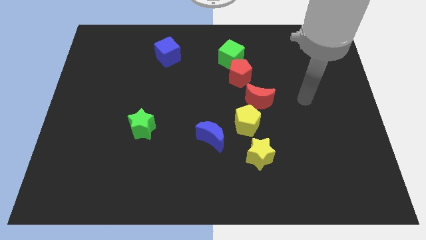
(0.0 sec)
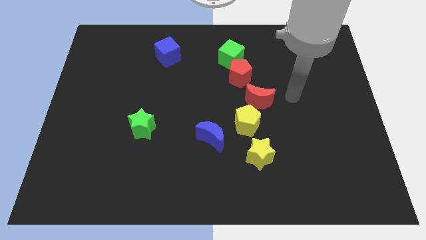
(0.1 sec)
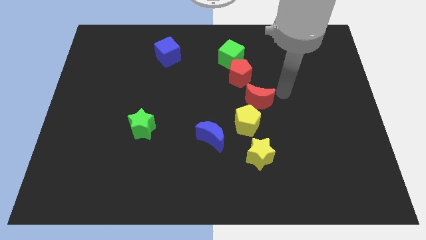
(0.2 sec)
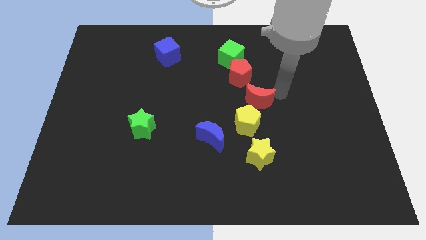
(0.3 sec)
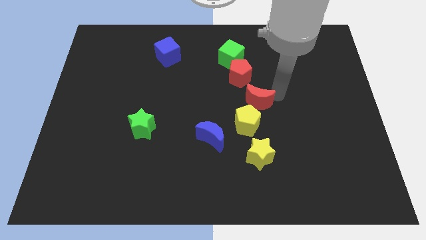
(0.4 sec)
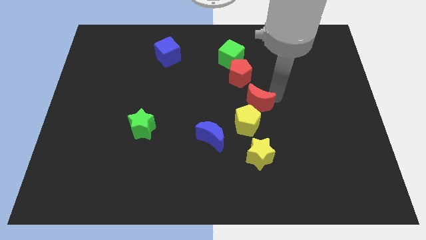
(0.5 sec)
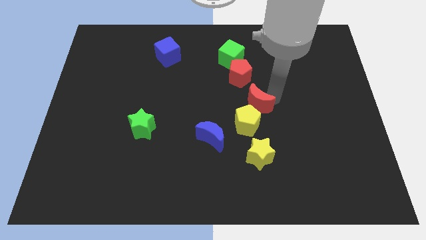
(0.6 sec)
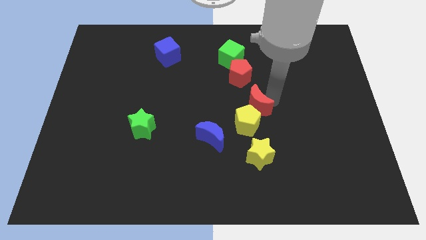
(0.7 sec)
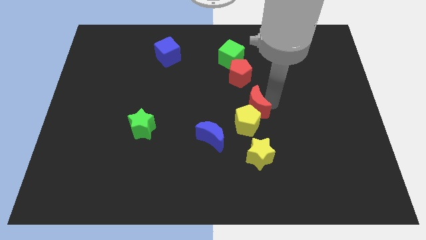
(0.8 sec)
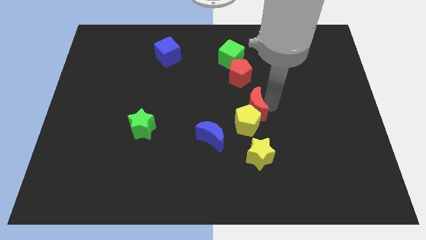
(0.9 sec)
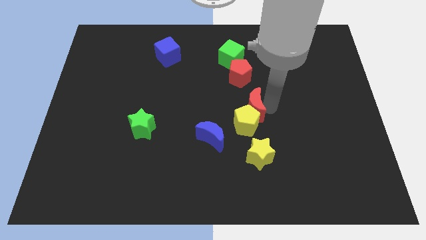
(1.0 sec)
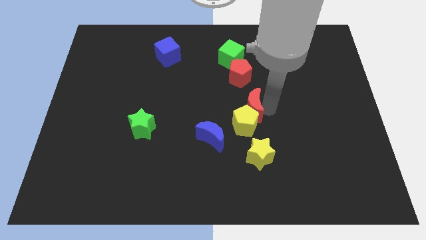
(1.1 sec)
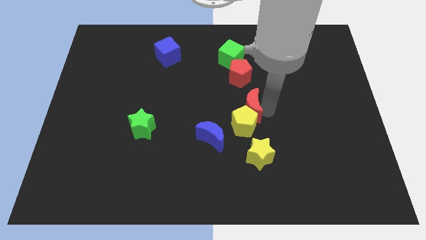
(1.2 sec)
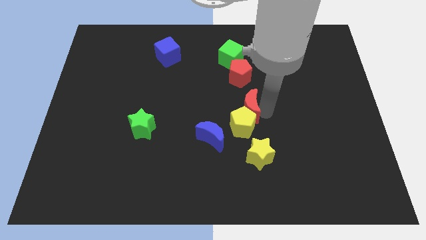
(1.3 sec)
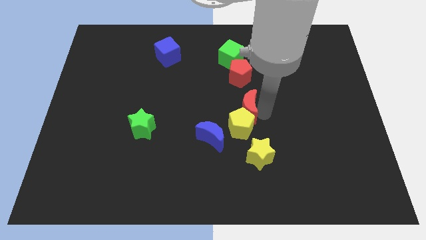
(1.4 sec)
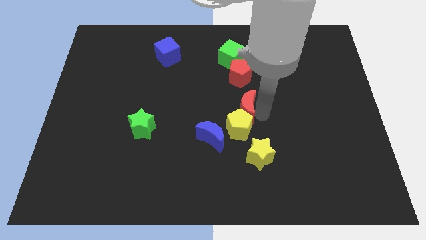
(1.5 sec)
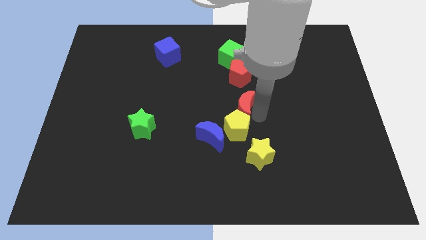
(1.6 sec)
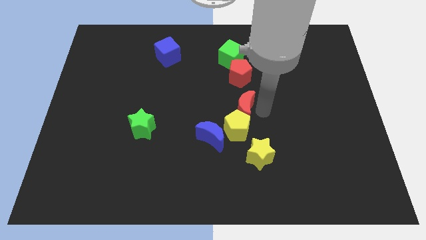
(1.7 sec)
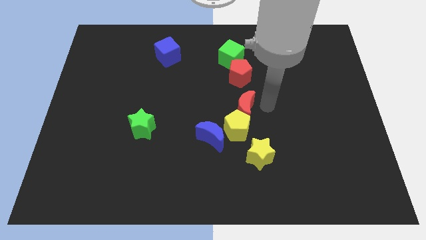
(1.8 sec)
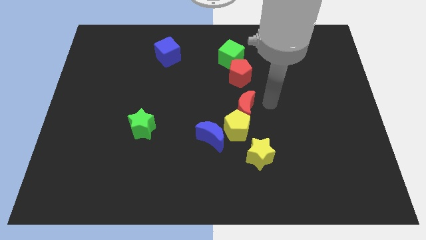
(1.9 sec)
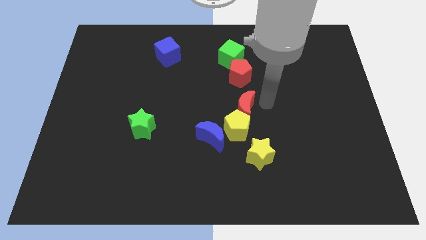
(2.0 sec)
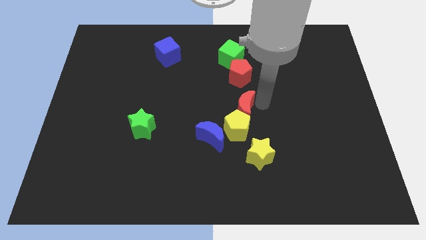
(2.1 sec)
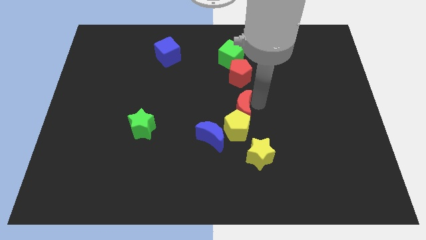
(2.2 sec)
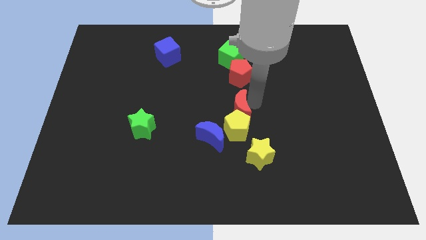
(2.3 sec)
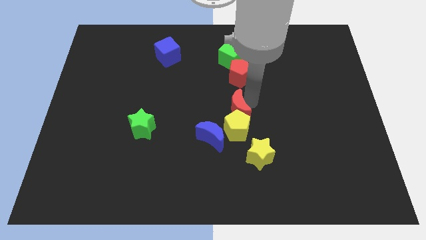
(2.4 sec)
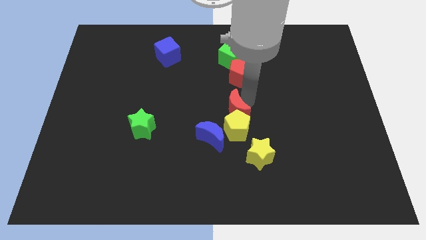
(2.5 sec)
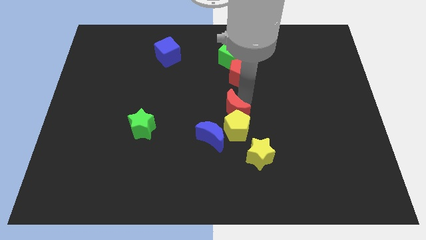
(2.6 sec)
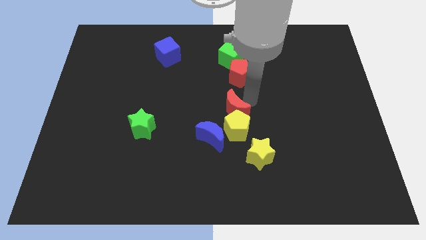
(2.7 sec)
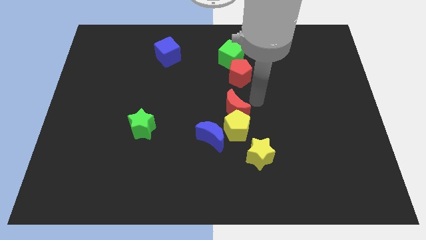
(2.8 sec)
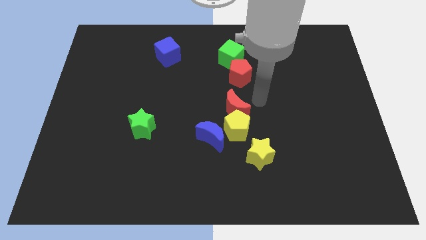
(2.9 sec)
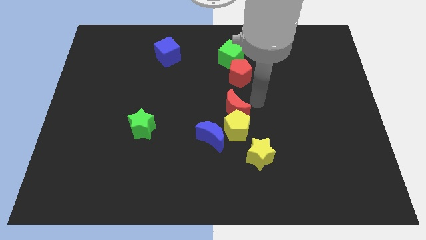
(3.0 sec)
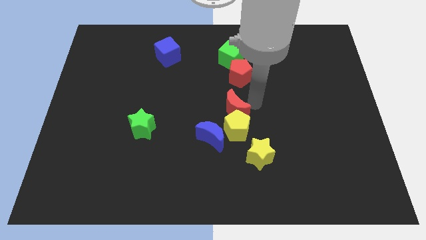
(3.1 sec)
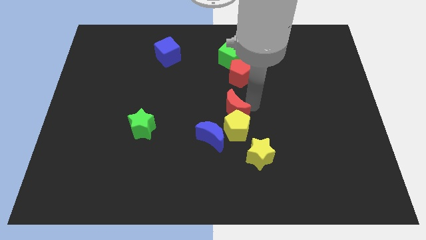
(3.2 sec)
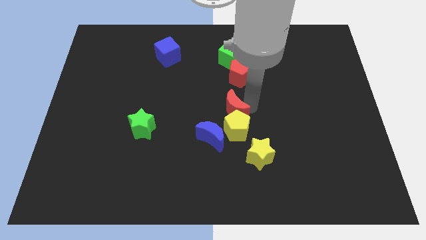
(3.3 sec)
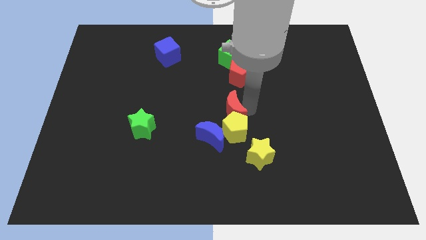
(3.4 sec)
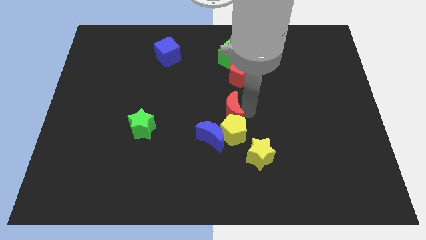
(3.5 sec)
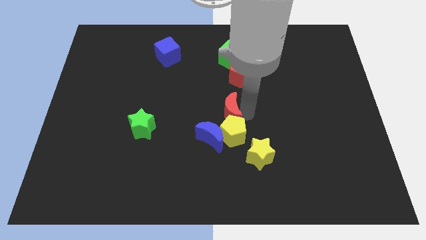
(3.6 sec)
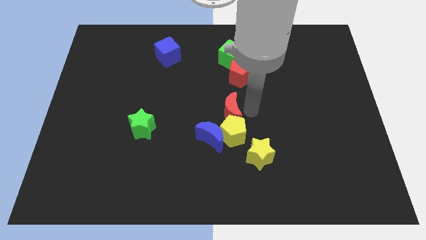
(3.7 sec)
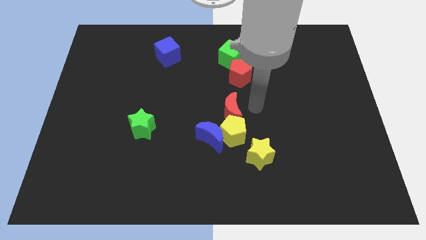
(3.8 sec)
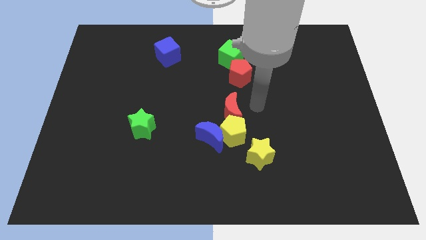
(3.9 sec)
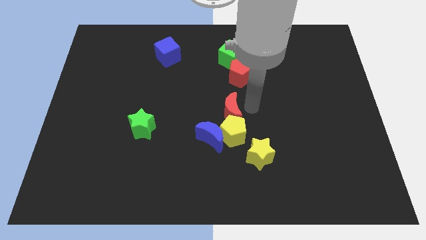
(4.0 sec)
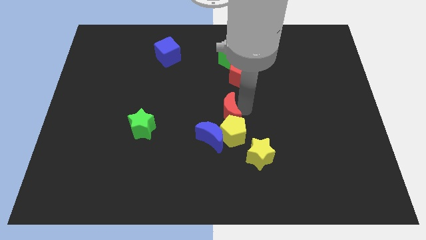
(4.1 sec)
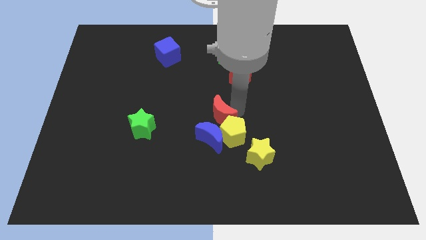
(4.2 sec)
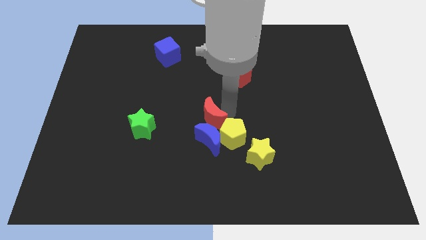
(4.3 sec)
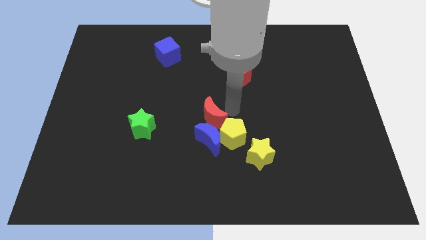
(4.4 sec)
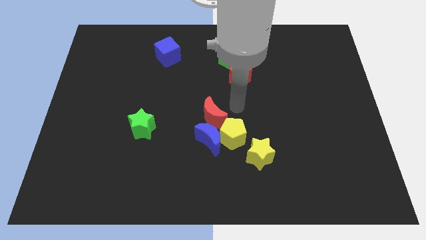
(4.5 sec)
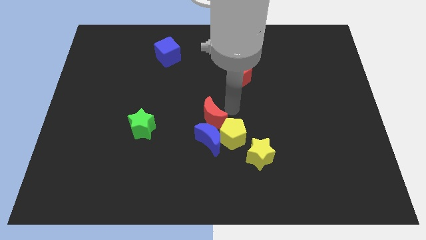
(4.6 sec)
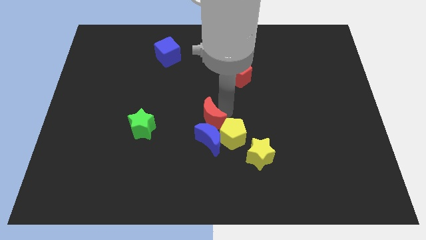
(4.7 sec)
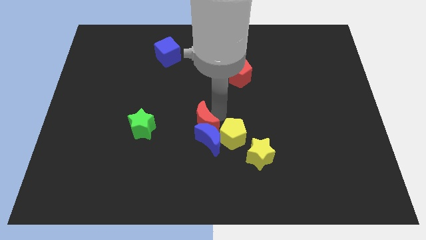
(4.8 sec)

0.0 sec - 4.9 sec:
put the red moon to the right of the green star

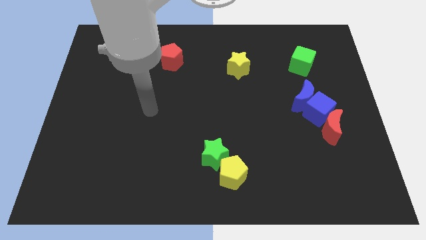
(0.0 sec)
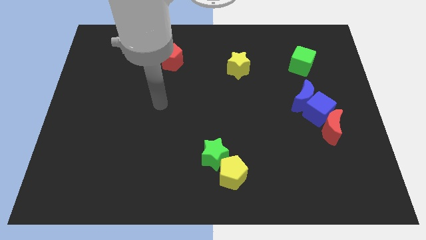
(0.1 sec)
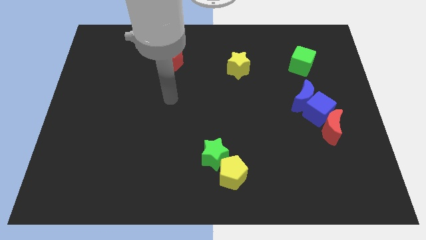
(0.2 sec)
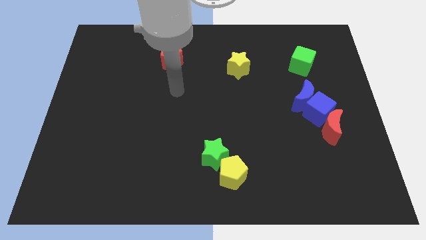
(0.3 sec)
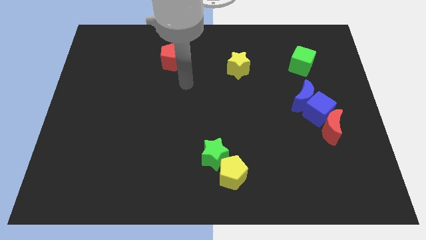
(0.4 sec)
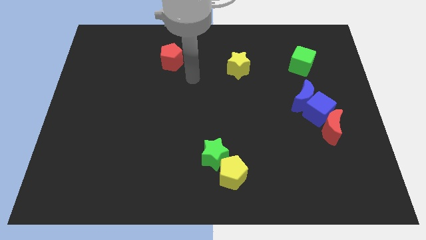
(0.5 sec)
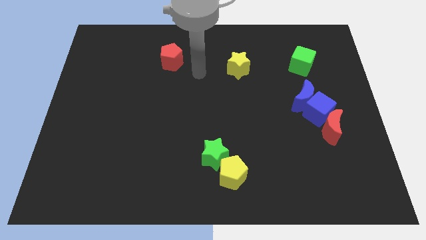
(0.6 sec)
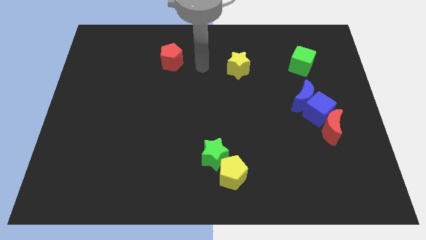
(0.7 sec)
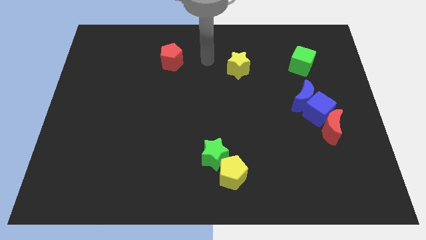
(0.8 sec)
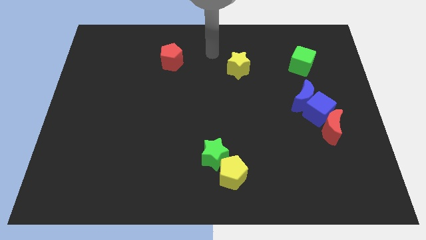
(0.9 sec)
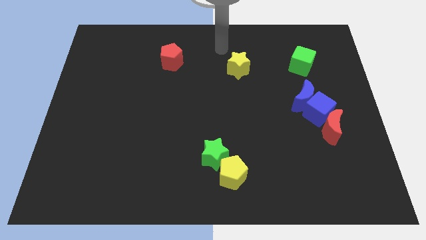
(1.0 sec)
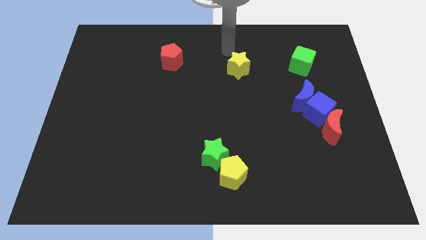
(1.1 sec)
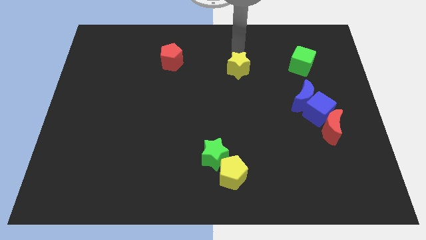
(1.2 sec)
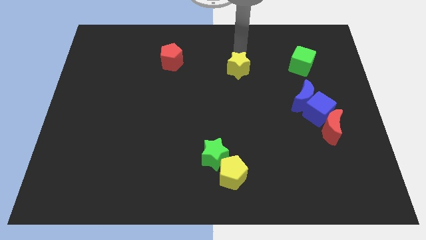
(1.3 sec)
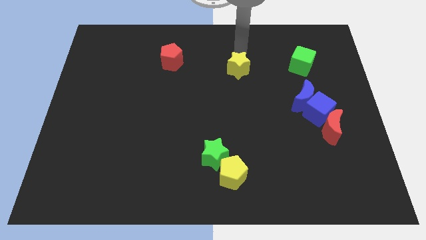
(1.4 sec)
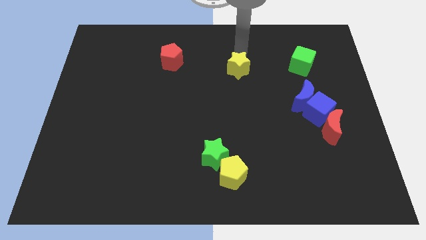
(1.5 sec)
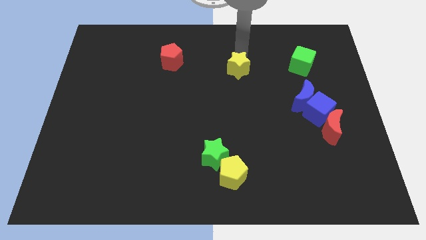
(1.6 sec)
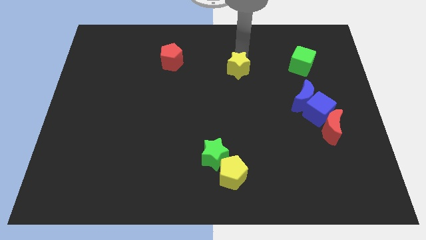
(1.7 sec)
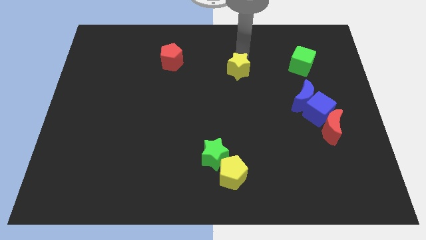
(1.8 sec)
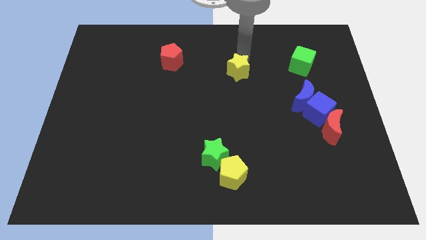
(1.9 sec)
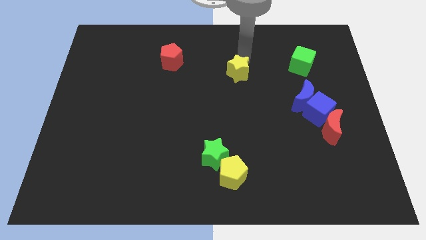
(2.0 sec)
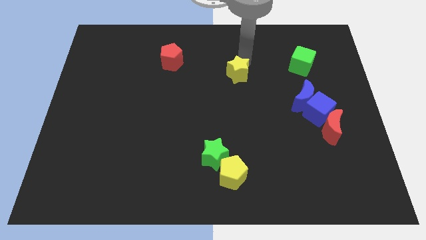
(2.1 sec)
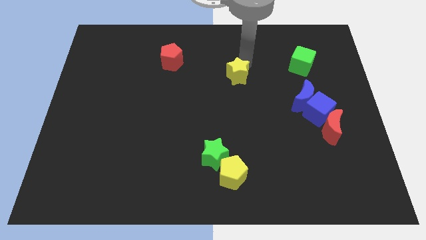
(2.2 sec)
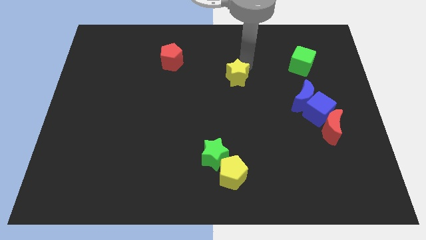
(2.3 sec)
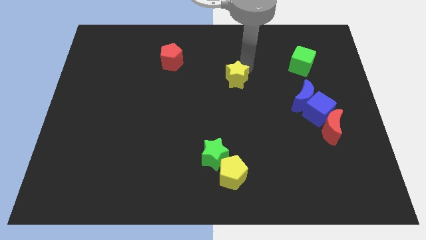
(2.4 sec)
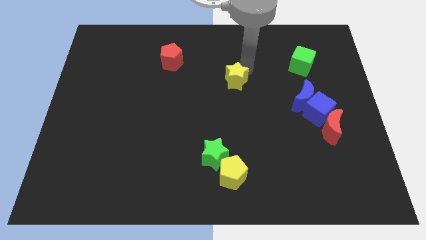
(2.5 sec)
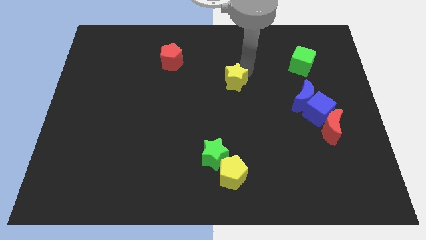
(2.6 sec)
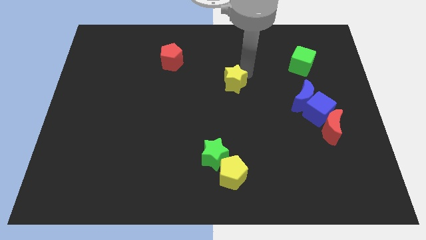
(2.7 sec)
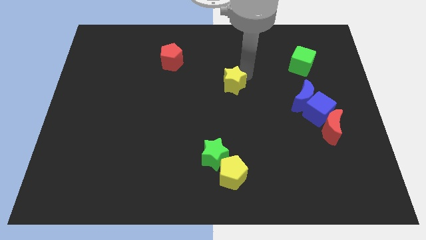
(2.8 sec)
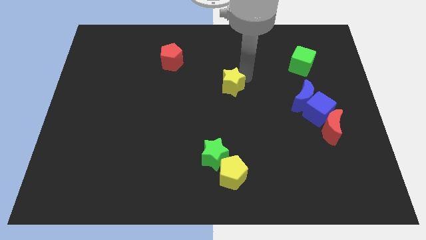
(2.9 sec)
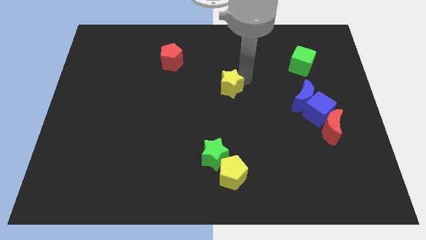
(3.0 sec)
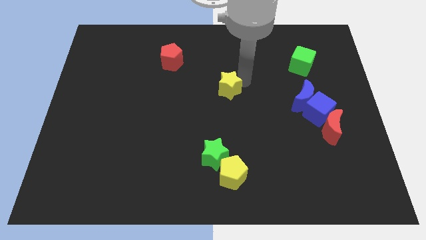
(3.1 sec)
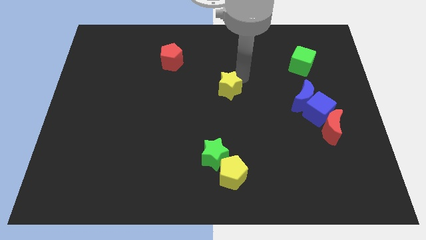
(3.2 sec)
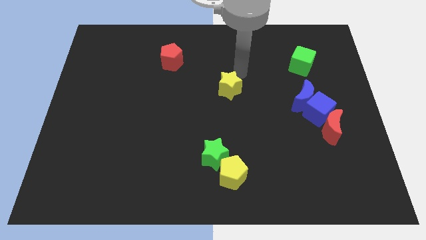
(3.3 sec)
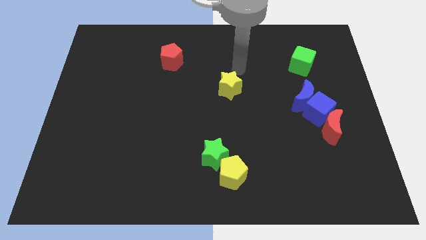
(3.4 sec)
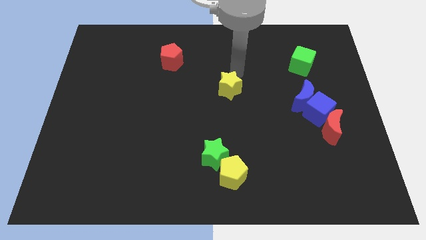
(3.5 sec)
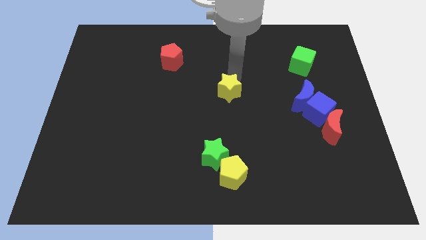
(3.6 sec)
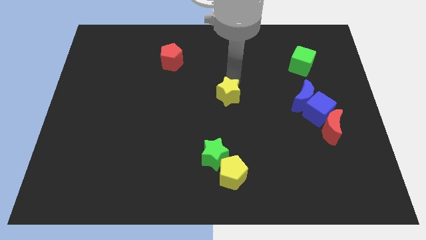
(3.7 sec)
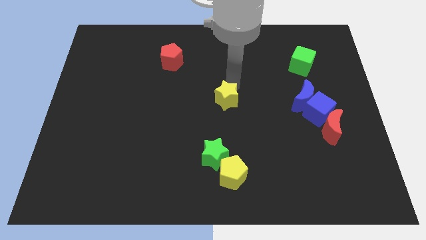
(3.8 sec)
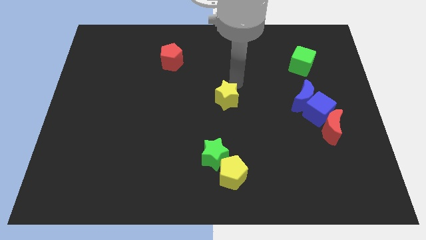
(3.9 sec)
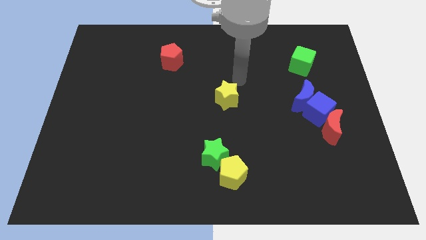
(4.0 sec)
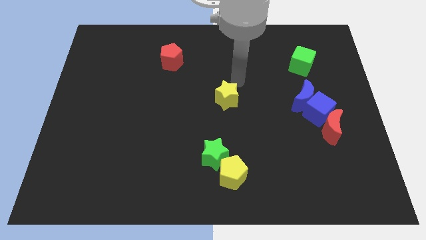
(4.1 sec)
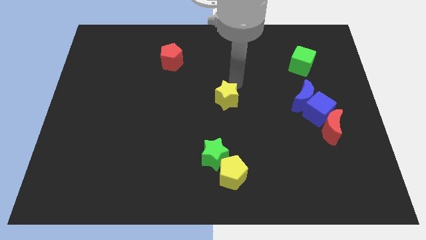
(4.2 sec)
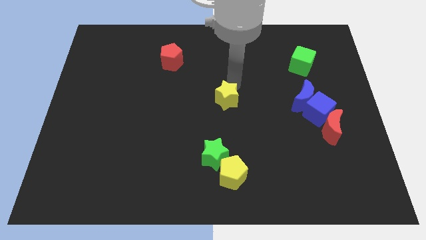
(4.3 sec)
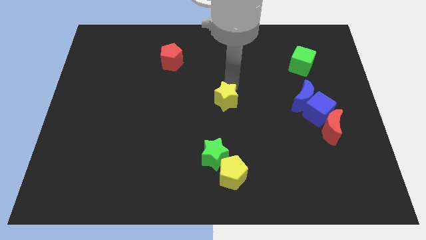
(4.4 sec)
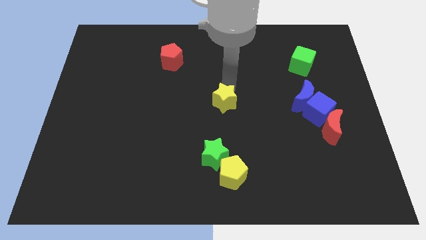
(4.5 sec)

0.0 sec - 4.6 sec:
move the yellow star above the green star
